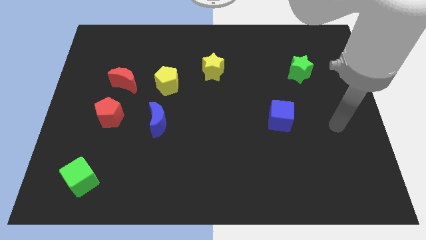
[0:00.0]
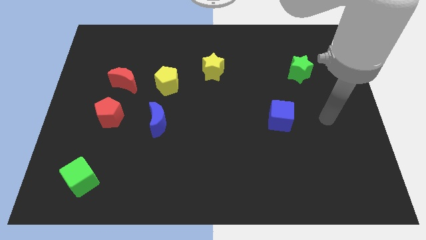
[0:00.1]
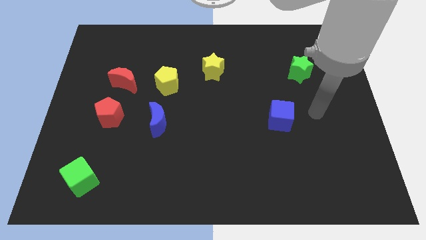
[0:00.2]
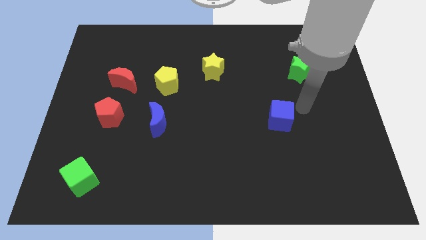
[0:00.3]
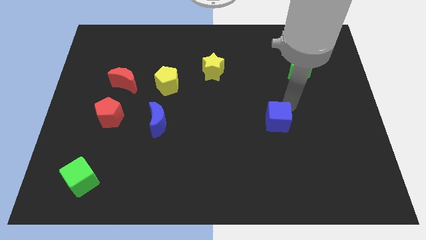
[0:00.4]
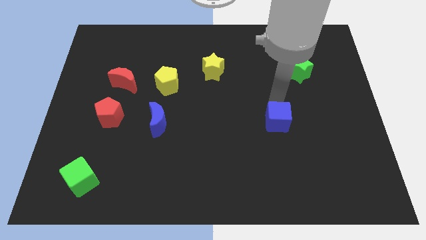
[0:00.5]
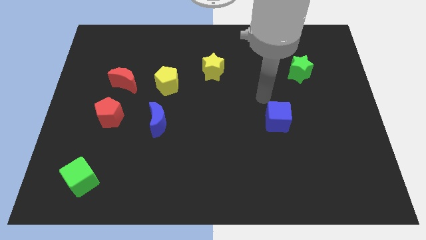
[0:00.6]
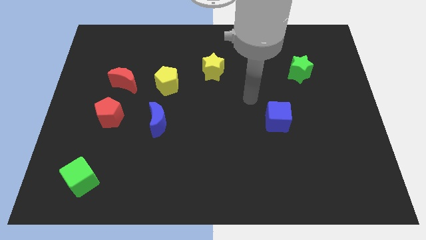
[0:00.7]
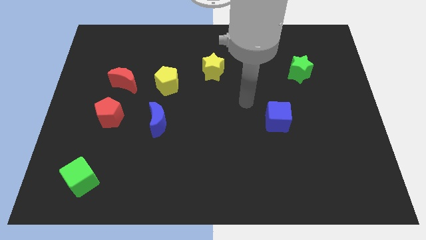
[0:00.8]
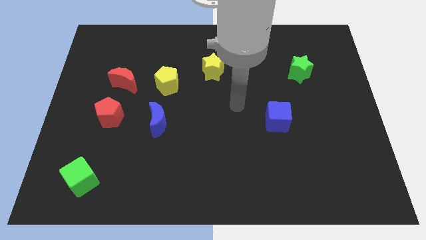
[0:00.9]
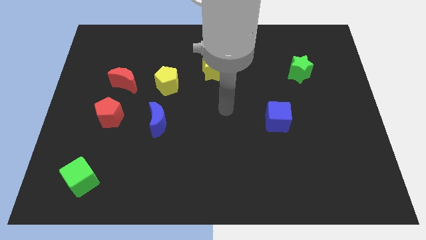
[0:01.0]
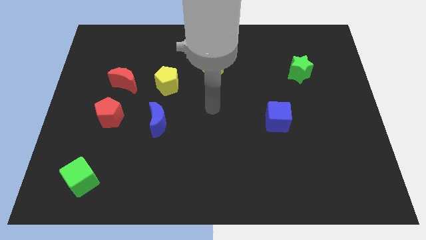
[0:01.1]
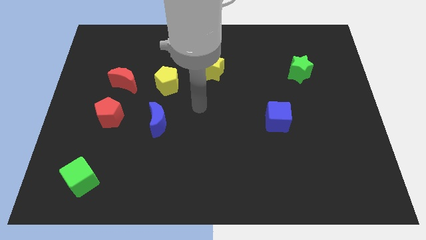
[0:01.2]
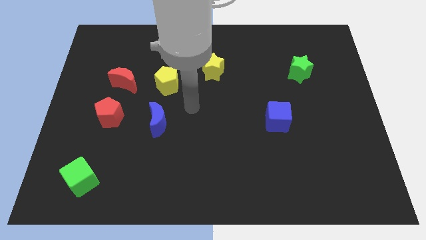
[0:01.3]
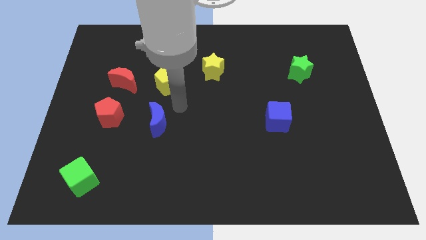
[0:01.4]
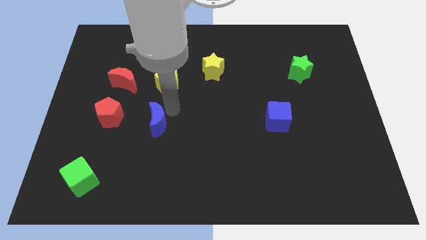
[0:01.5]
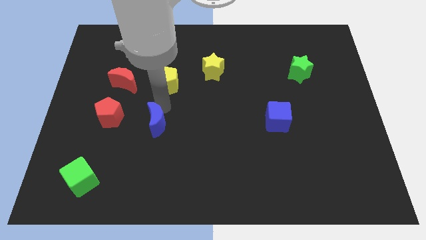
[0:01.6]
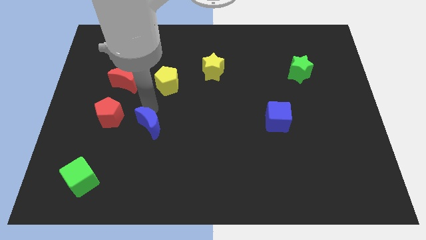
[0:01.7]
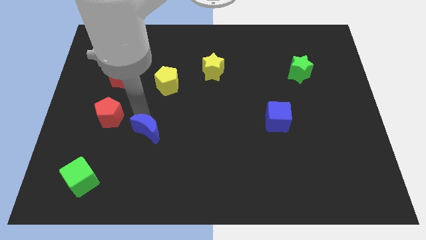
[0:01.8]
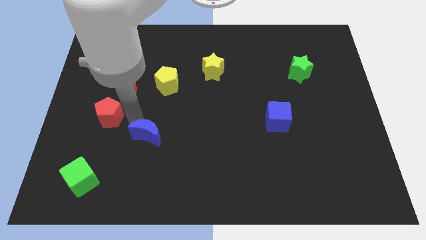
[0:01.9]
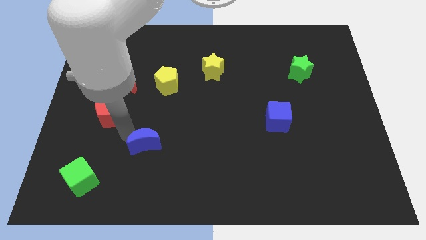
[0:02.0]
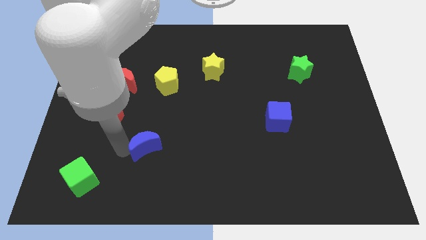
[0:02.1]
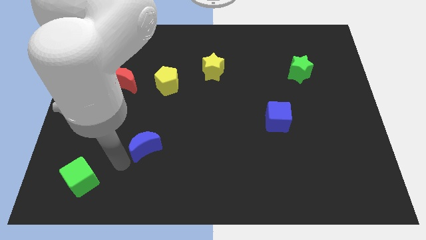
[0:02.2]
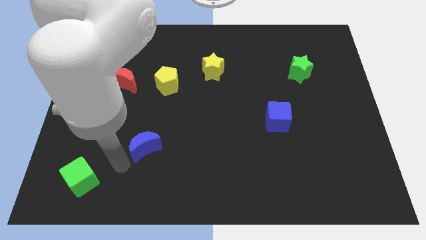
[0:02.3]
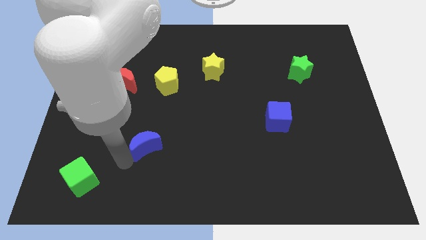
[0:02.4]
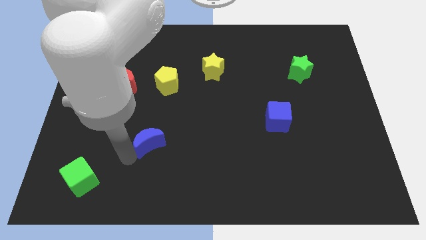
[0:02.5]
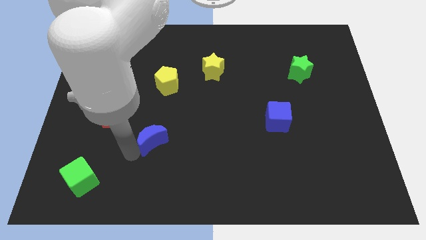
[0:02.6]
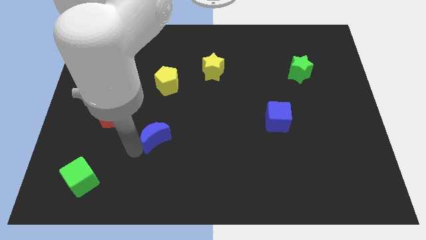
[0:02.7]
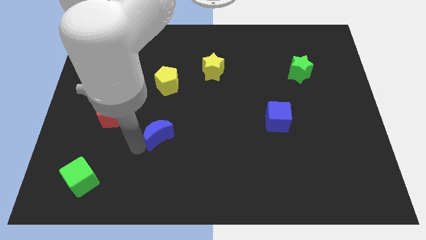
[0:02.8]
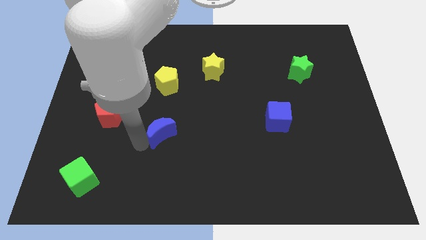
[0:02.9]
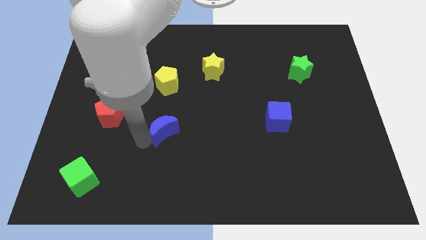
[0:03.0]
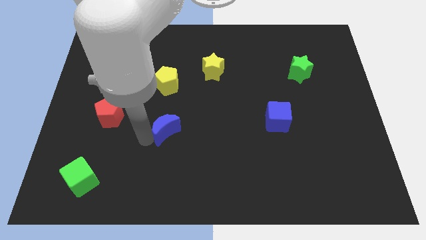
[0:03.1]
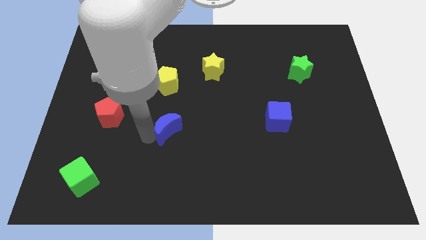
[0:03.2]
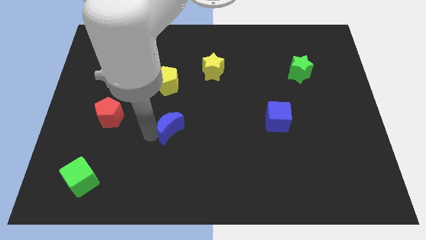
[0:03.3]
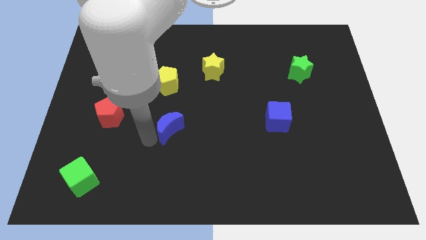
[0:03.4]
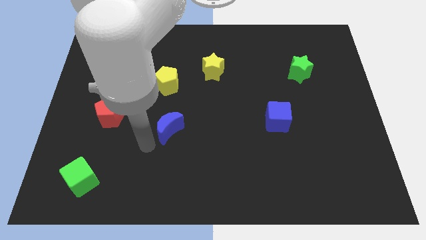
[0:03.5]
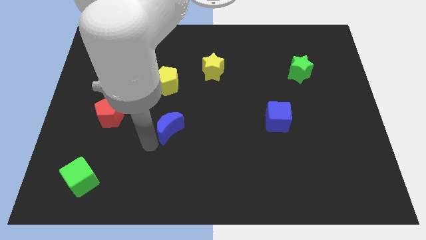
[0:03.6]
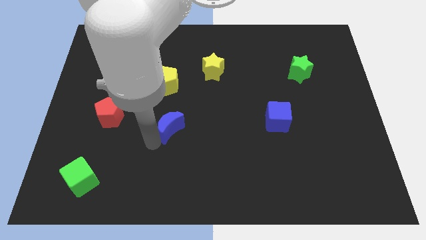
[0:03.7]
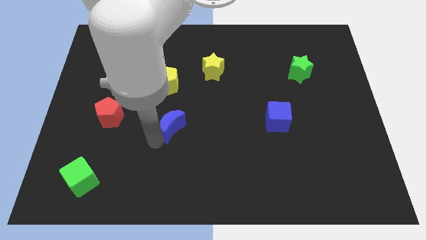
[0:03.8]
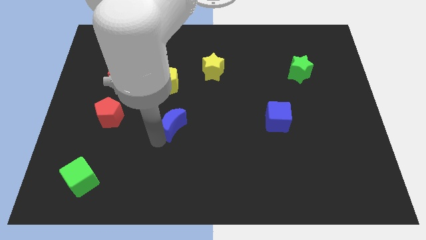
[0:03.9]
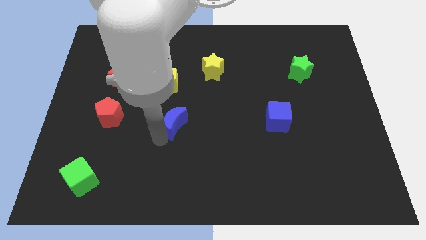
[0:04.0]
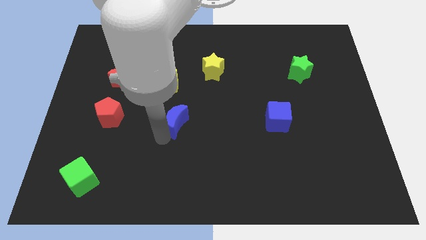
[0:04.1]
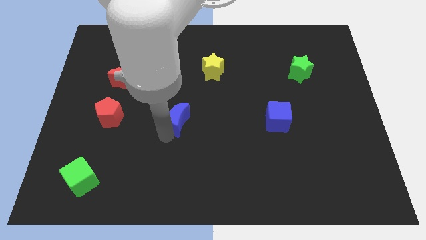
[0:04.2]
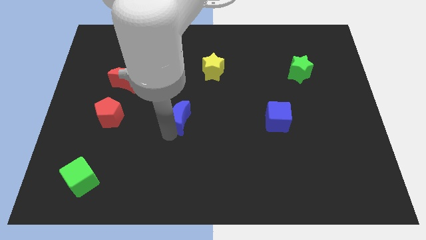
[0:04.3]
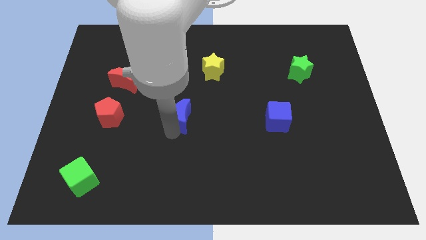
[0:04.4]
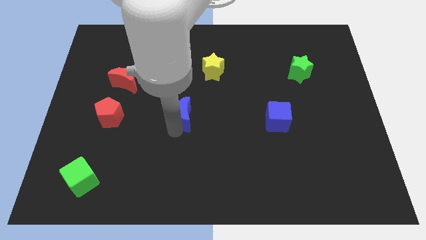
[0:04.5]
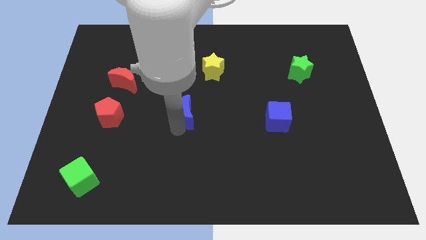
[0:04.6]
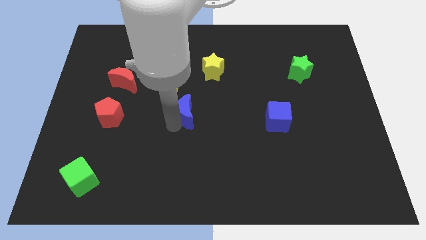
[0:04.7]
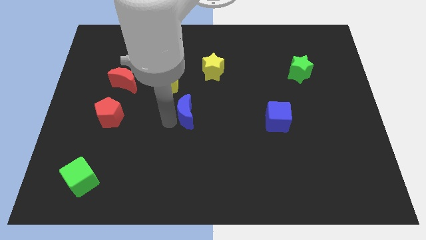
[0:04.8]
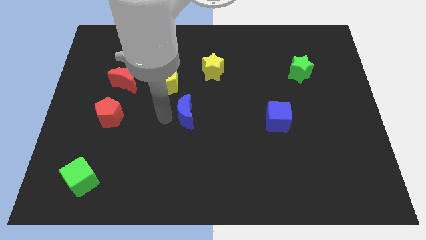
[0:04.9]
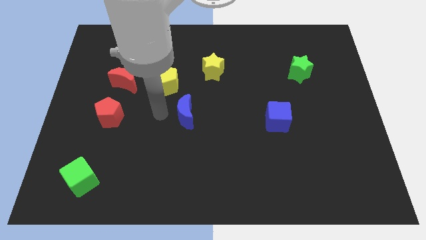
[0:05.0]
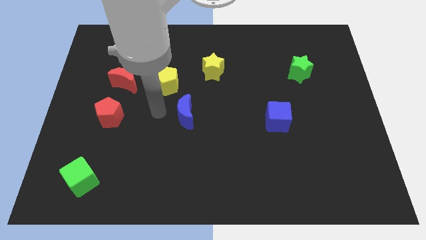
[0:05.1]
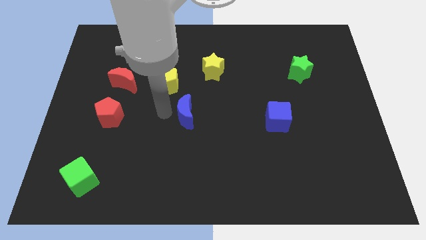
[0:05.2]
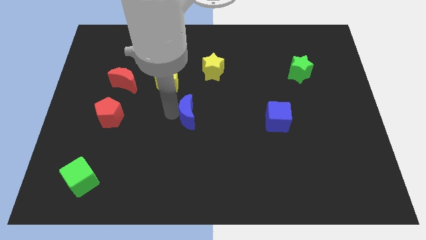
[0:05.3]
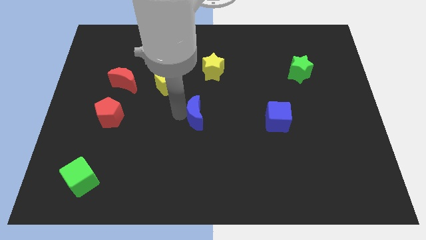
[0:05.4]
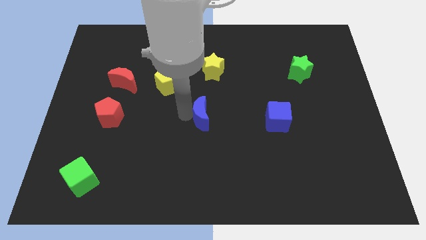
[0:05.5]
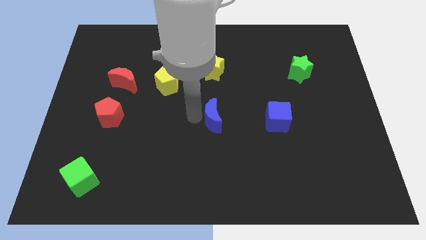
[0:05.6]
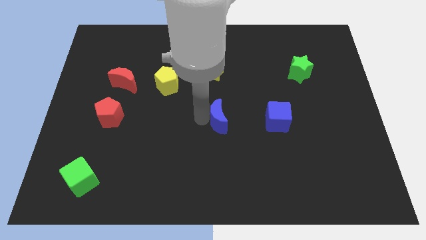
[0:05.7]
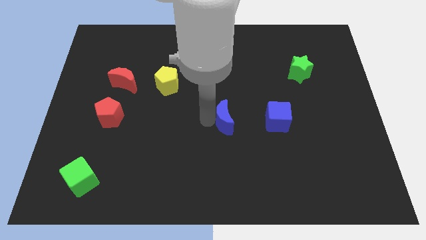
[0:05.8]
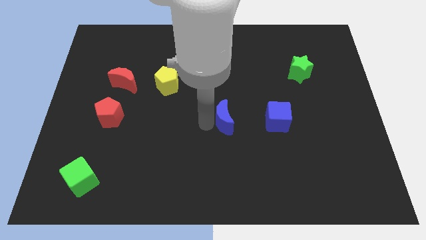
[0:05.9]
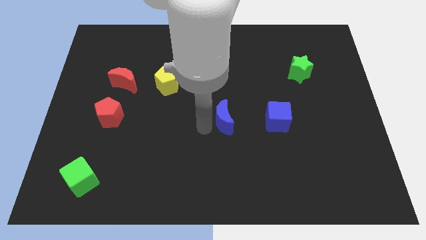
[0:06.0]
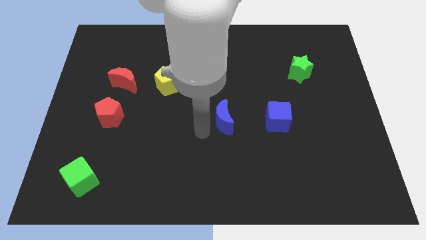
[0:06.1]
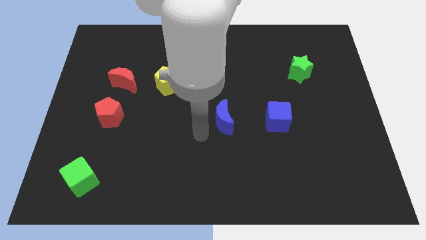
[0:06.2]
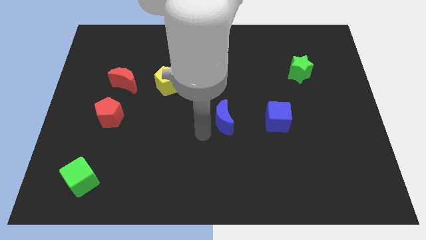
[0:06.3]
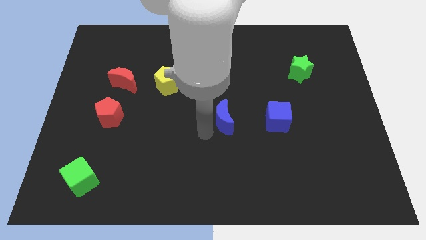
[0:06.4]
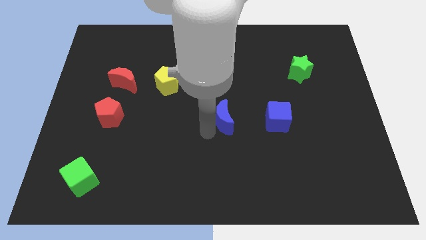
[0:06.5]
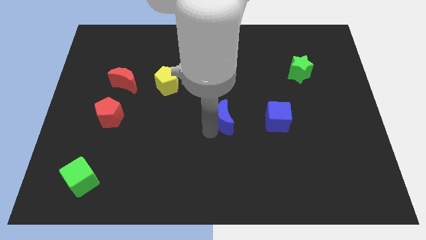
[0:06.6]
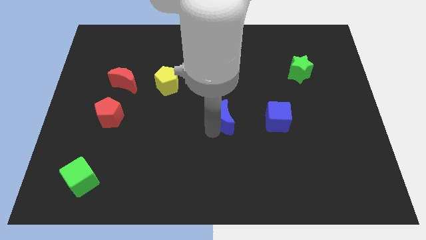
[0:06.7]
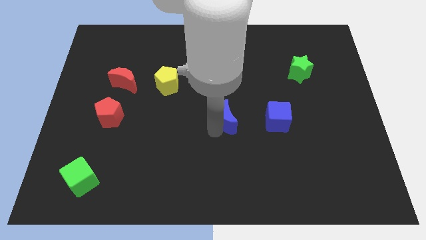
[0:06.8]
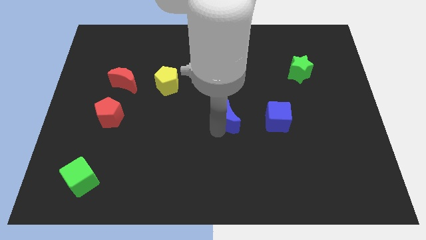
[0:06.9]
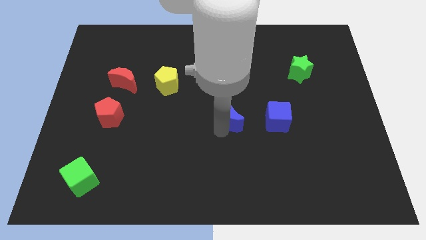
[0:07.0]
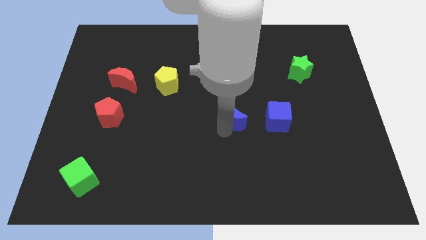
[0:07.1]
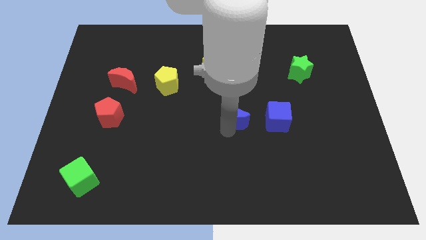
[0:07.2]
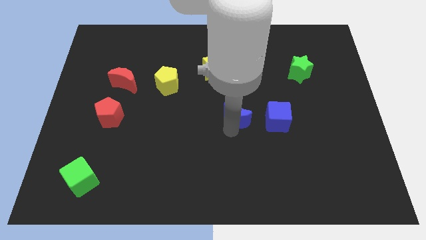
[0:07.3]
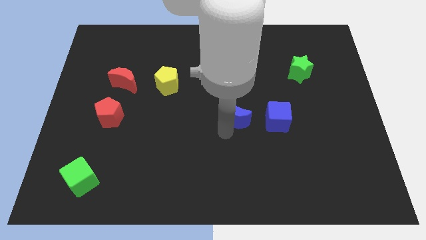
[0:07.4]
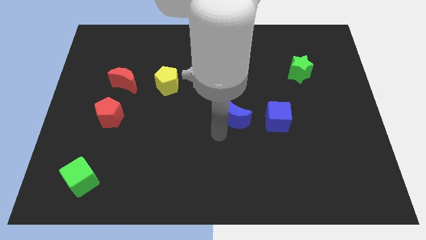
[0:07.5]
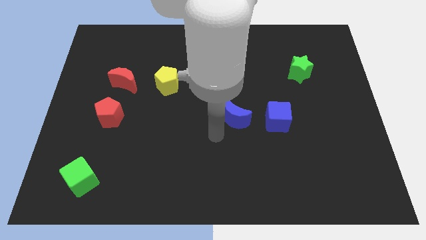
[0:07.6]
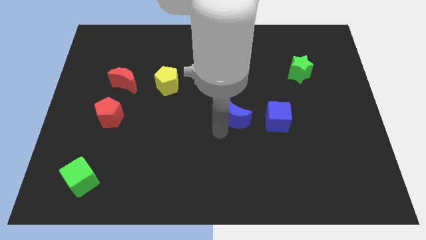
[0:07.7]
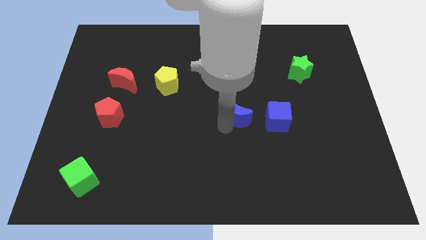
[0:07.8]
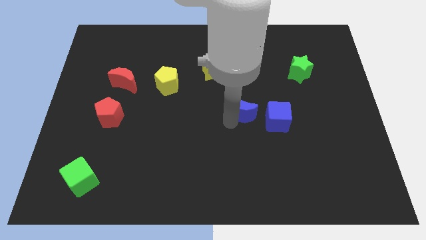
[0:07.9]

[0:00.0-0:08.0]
put the blue moon to the top left side of the blue cube

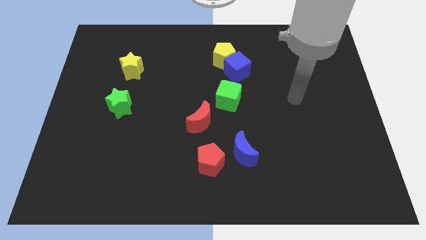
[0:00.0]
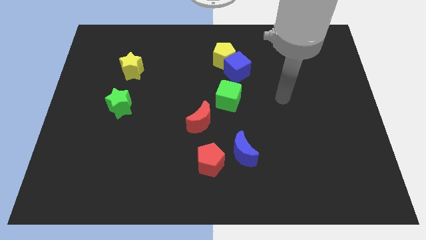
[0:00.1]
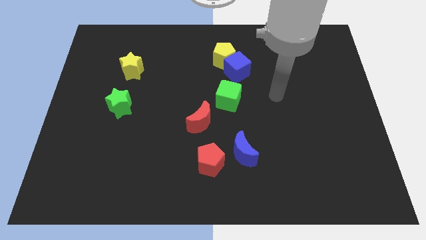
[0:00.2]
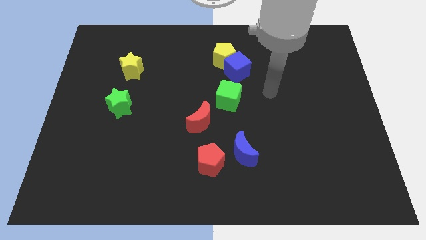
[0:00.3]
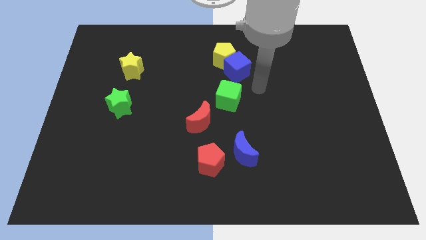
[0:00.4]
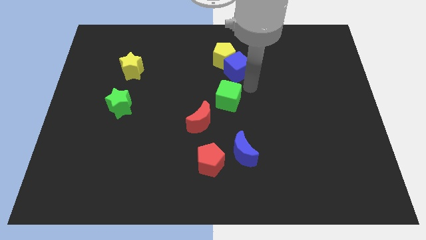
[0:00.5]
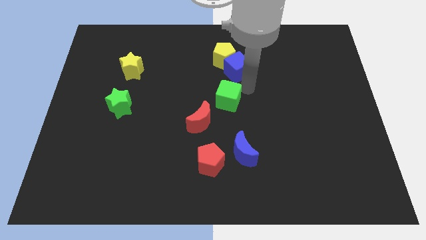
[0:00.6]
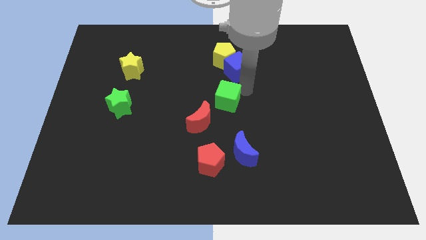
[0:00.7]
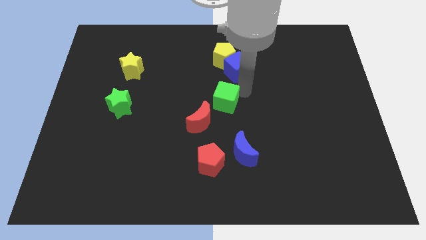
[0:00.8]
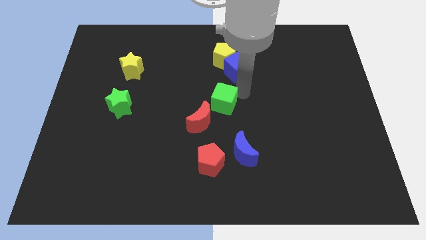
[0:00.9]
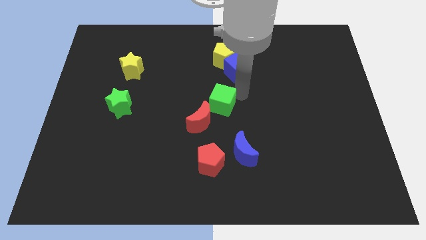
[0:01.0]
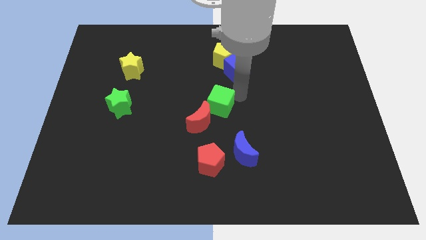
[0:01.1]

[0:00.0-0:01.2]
put the green cube to the top side of the red pentagon
